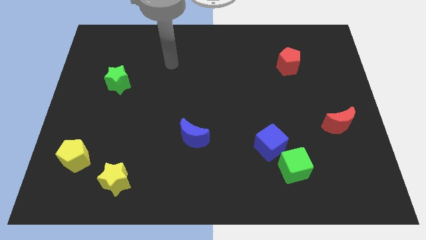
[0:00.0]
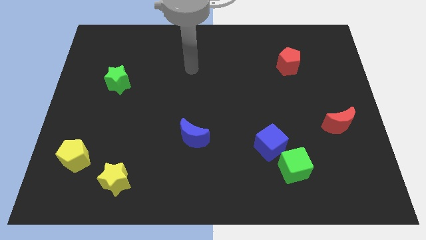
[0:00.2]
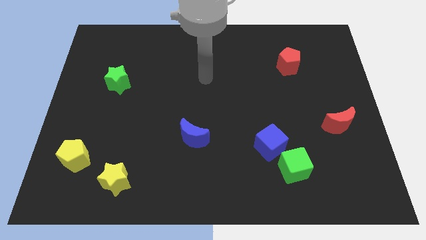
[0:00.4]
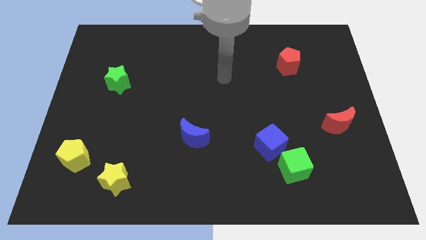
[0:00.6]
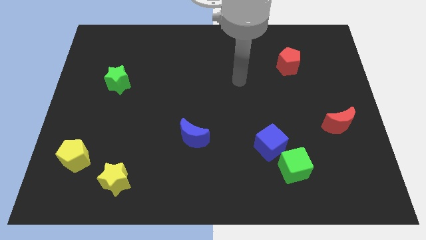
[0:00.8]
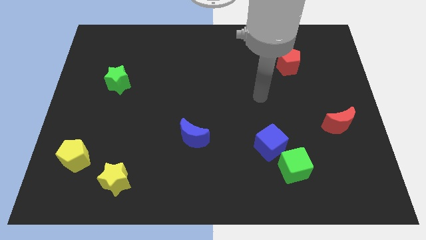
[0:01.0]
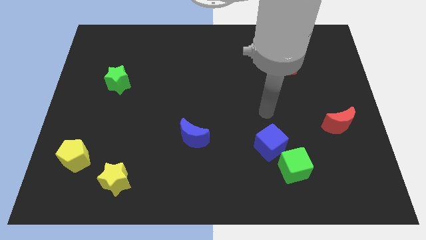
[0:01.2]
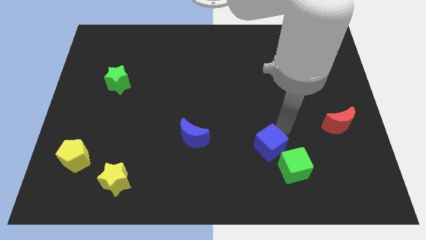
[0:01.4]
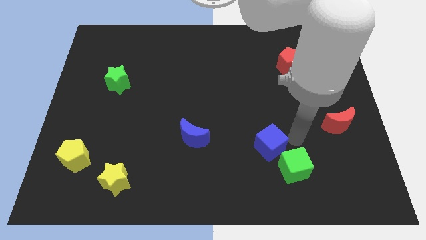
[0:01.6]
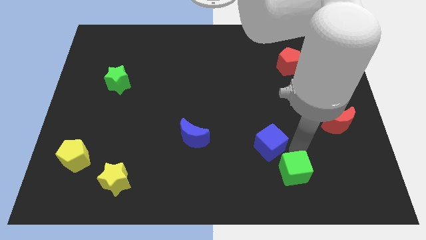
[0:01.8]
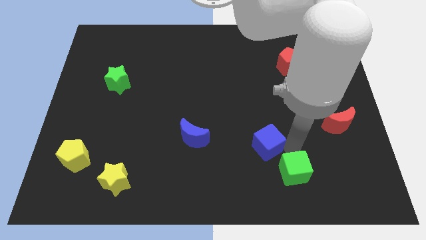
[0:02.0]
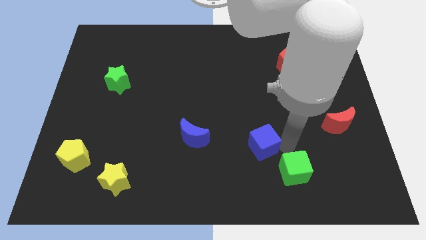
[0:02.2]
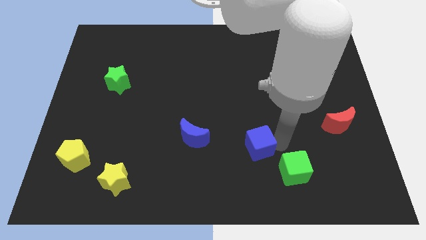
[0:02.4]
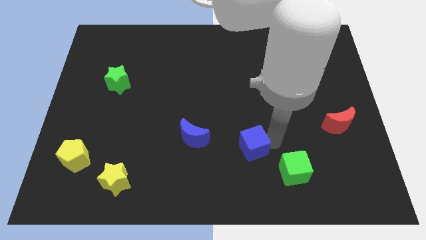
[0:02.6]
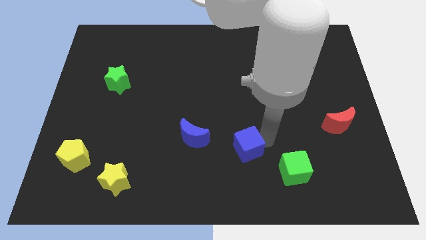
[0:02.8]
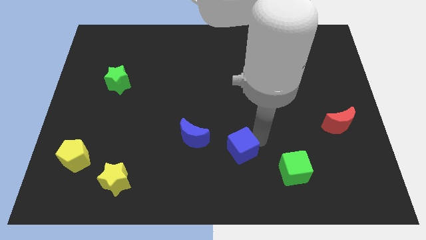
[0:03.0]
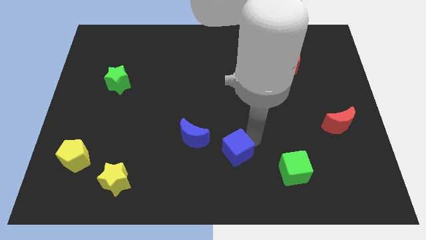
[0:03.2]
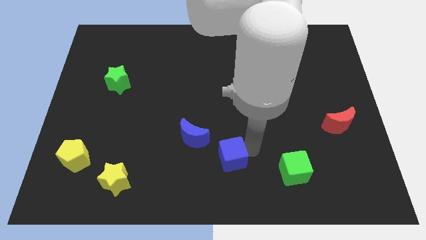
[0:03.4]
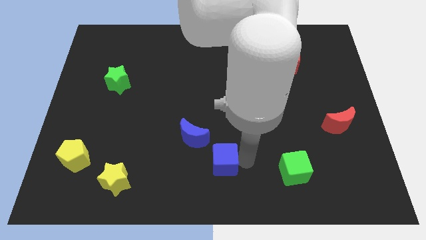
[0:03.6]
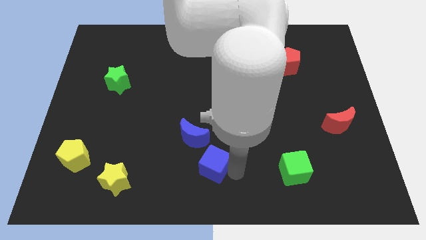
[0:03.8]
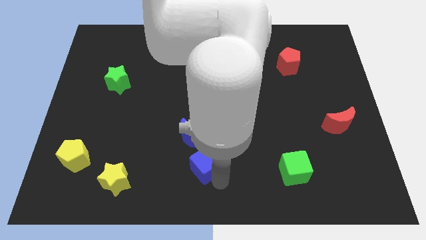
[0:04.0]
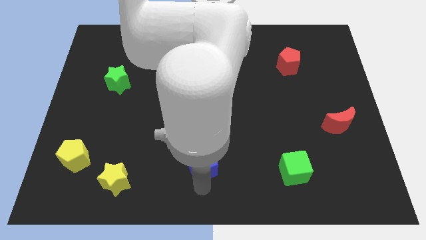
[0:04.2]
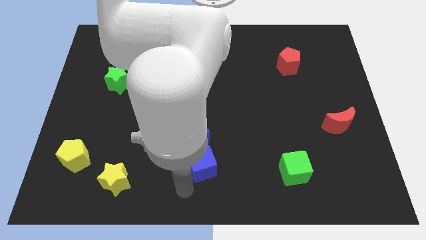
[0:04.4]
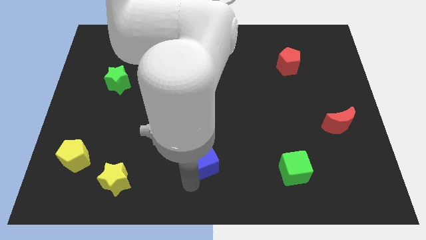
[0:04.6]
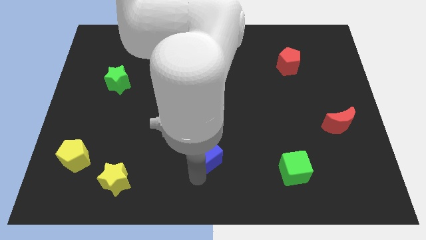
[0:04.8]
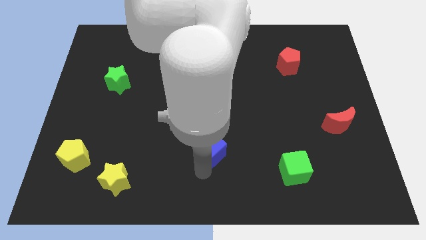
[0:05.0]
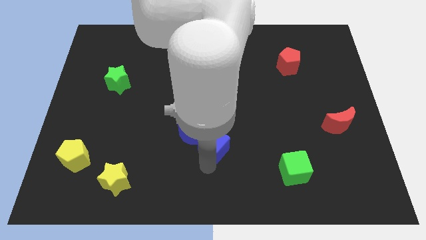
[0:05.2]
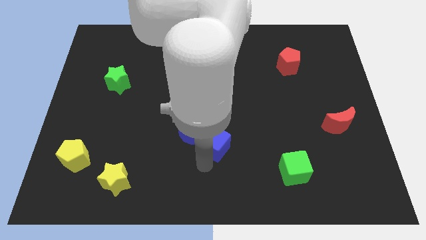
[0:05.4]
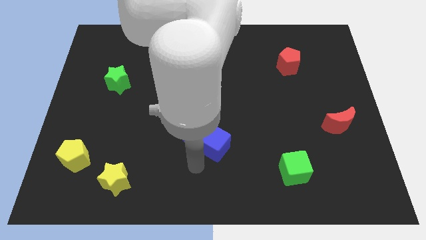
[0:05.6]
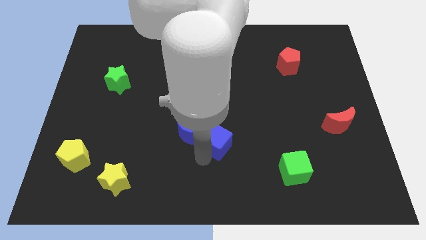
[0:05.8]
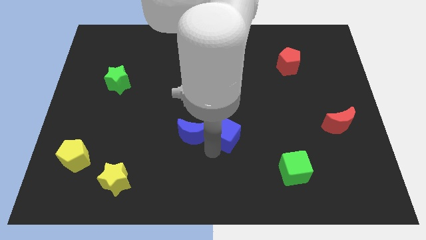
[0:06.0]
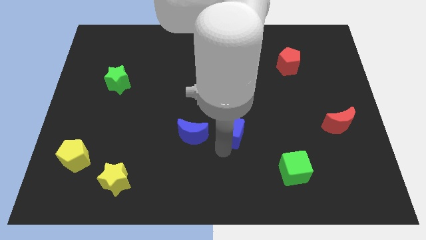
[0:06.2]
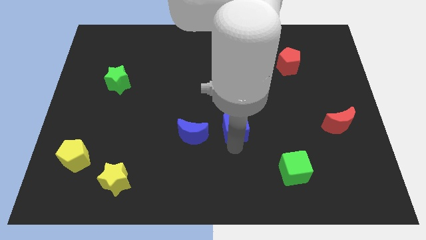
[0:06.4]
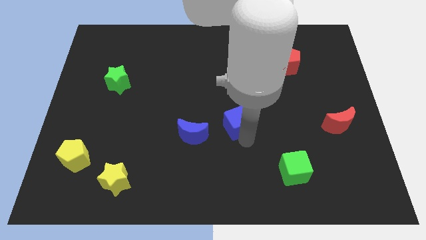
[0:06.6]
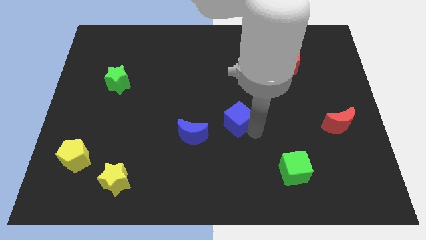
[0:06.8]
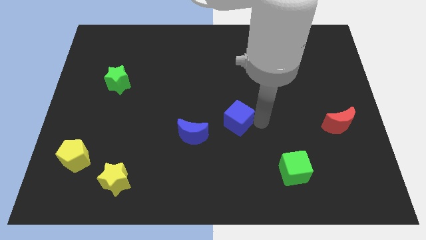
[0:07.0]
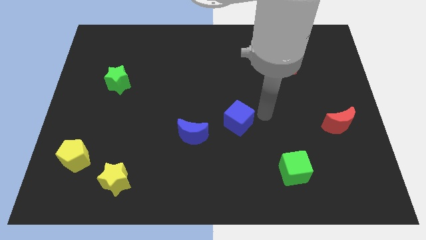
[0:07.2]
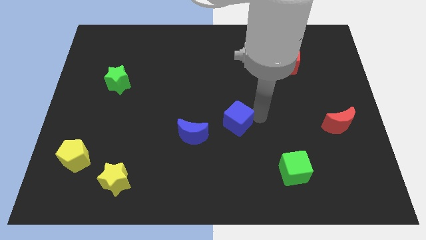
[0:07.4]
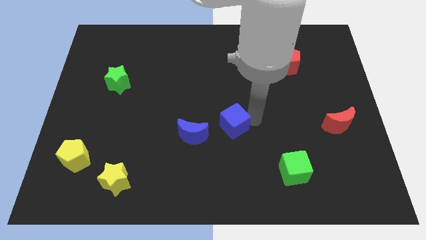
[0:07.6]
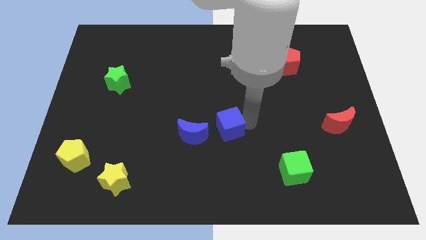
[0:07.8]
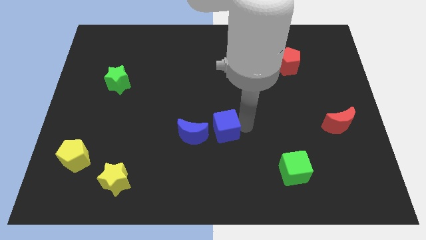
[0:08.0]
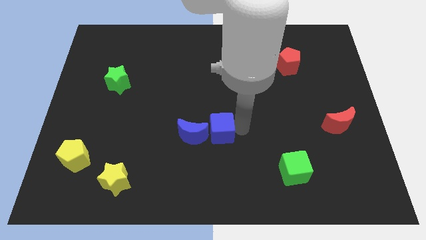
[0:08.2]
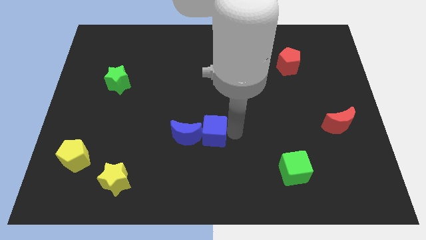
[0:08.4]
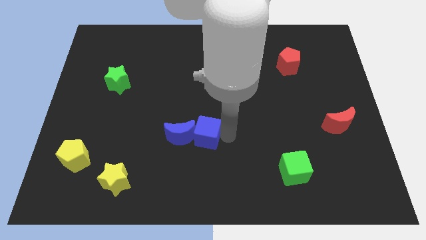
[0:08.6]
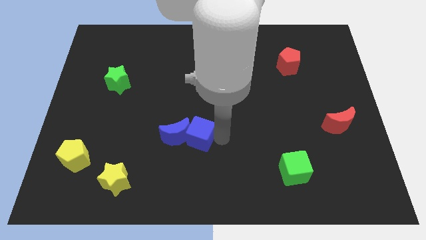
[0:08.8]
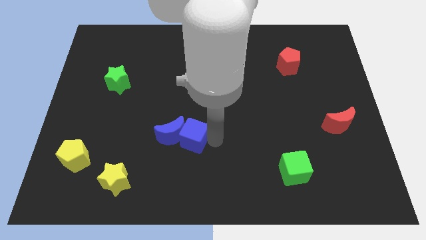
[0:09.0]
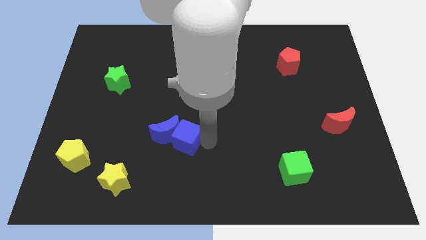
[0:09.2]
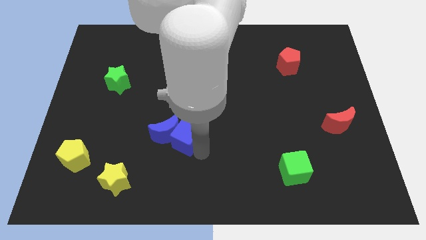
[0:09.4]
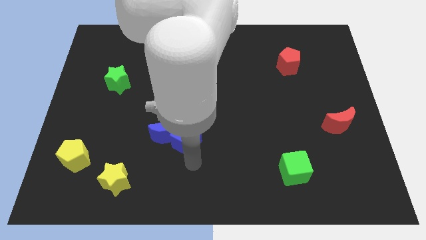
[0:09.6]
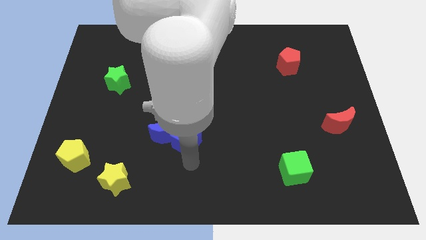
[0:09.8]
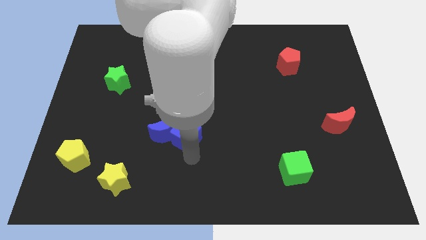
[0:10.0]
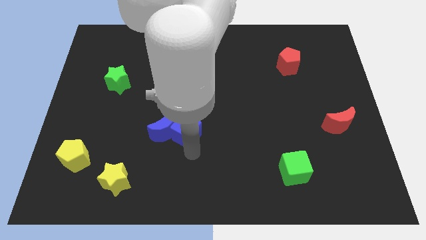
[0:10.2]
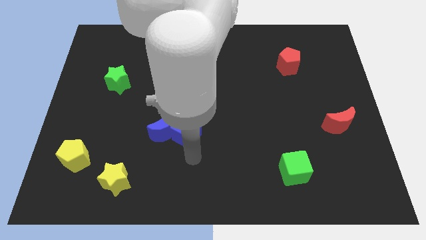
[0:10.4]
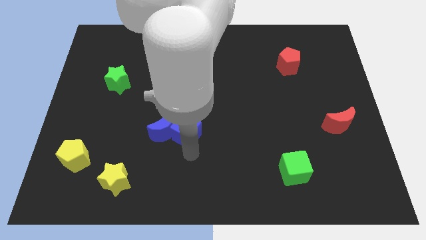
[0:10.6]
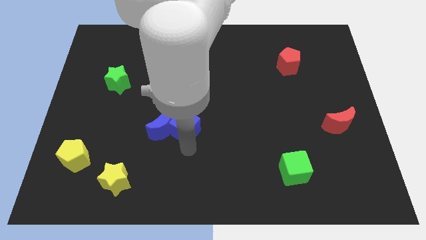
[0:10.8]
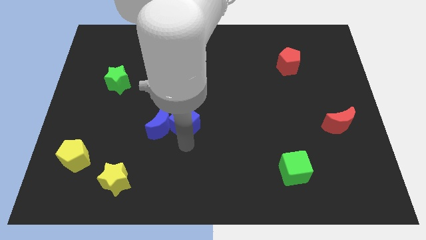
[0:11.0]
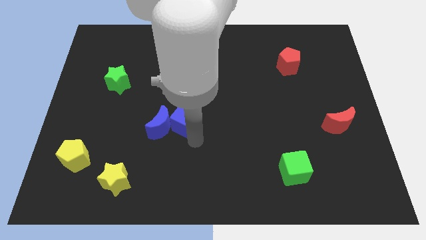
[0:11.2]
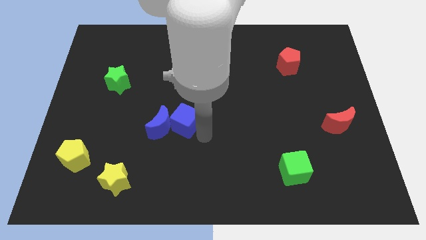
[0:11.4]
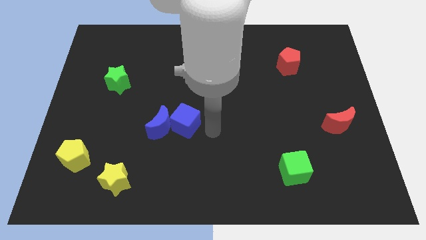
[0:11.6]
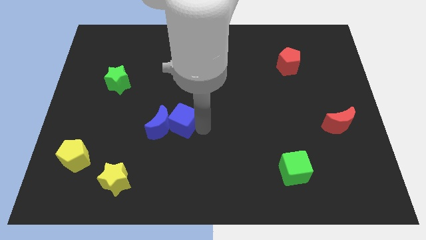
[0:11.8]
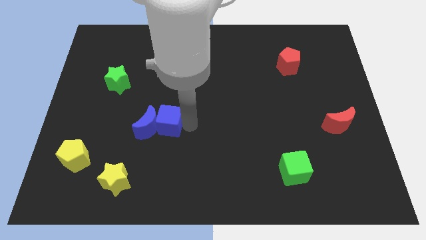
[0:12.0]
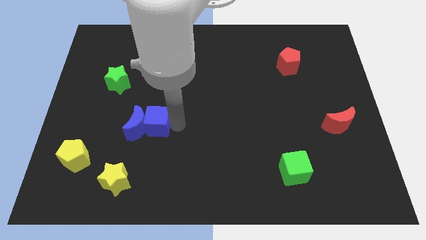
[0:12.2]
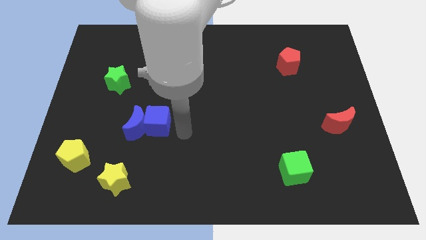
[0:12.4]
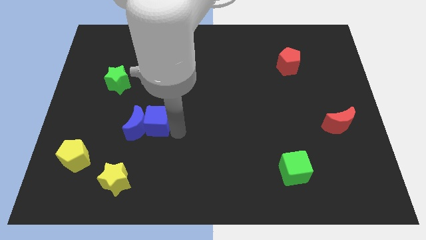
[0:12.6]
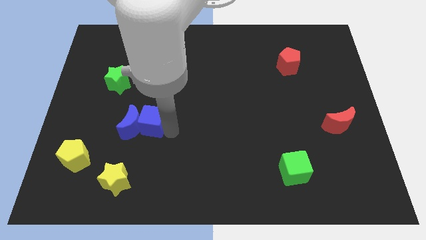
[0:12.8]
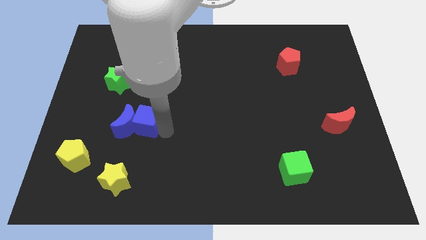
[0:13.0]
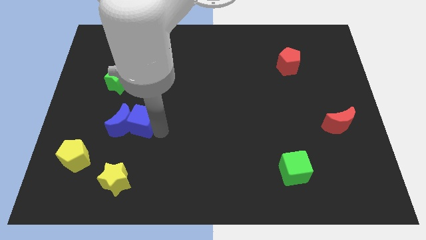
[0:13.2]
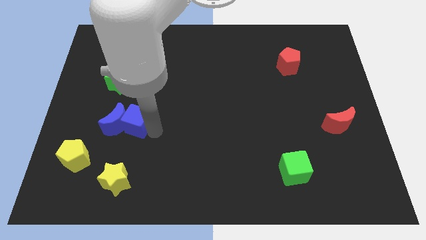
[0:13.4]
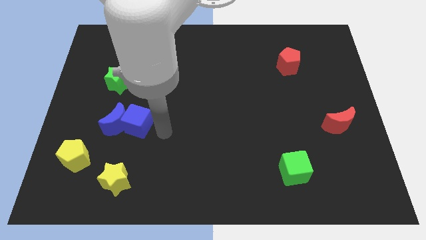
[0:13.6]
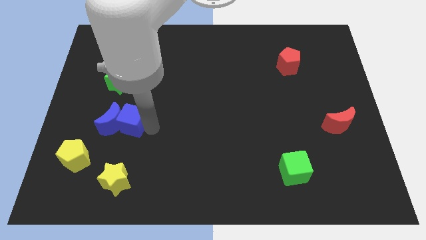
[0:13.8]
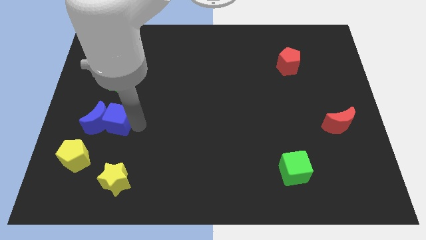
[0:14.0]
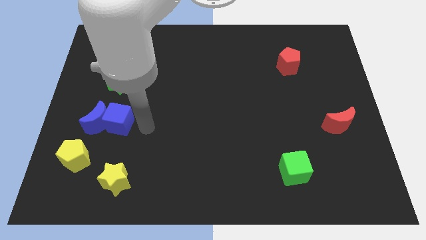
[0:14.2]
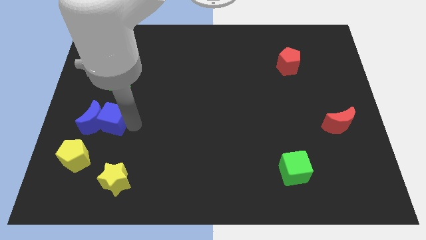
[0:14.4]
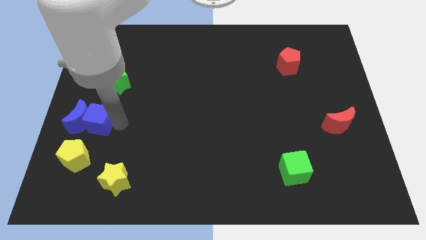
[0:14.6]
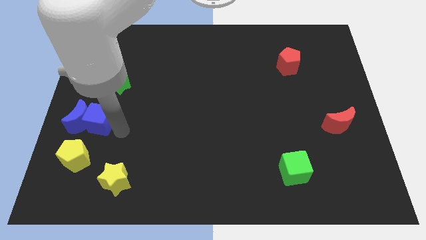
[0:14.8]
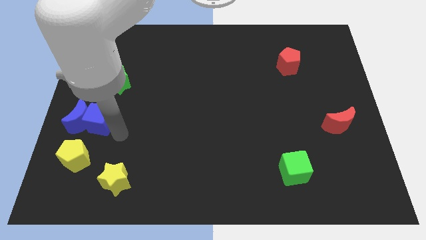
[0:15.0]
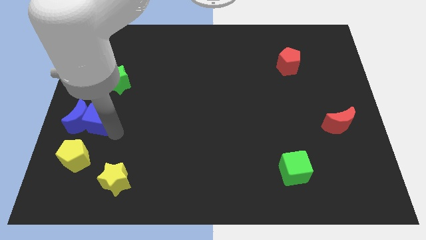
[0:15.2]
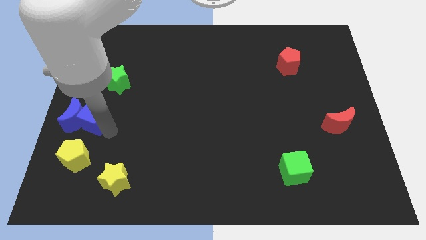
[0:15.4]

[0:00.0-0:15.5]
put the blue cube to the left side
